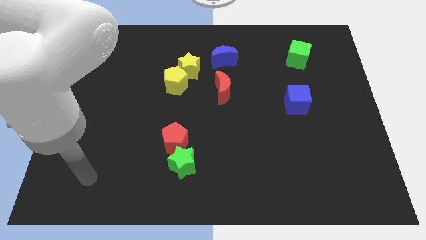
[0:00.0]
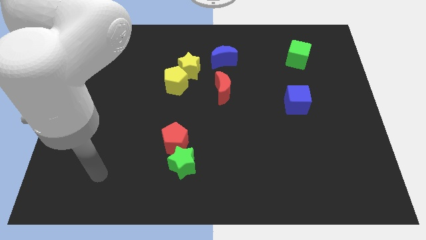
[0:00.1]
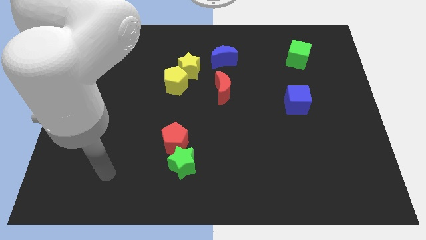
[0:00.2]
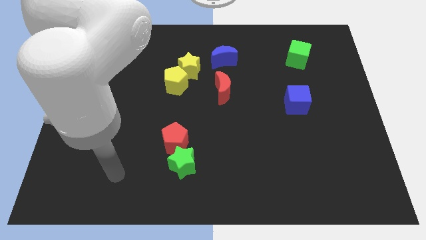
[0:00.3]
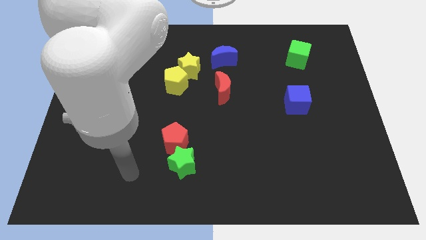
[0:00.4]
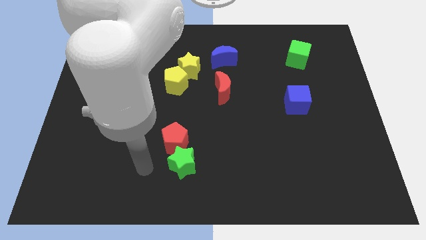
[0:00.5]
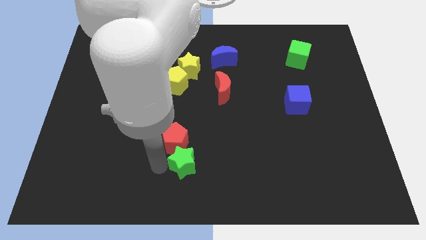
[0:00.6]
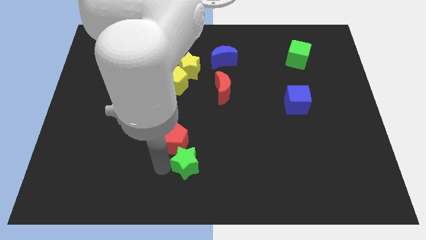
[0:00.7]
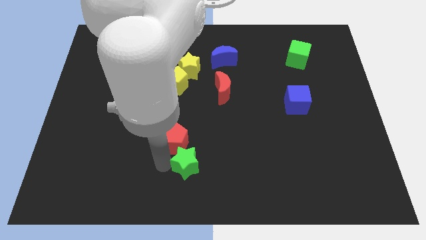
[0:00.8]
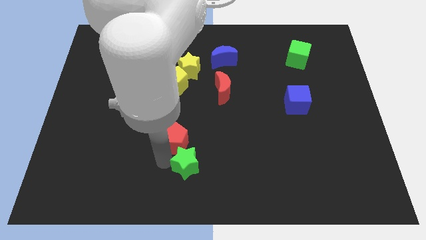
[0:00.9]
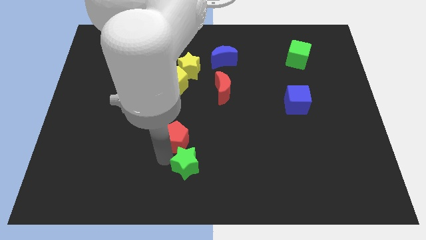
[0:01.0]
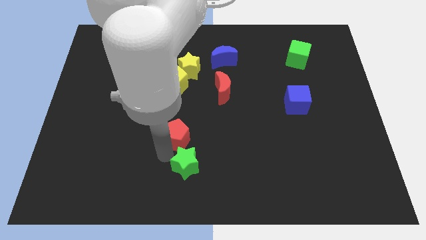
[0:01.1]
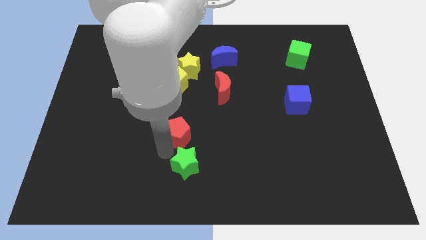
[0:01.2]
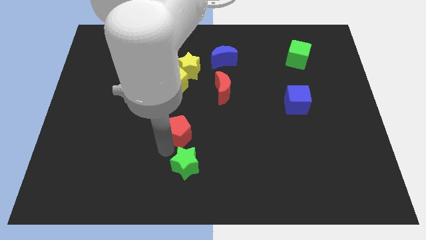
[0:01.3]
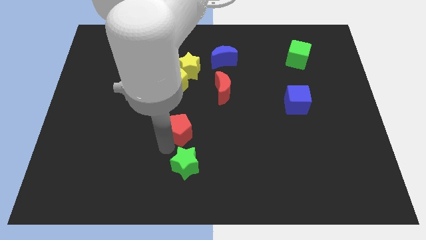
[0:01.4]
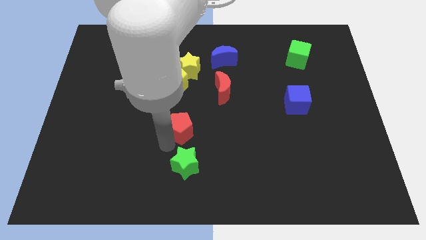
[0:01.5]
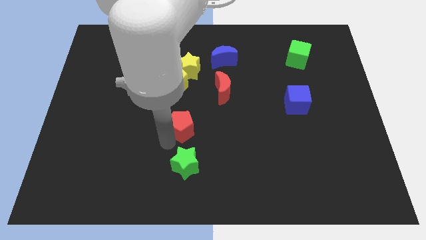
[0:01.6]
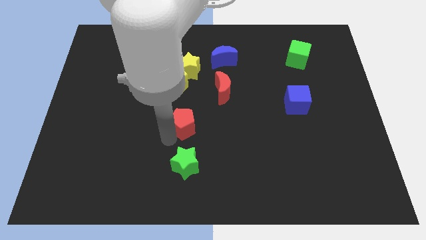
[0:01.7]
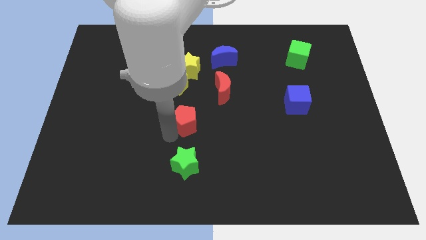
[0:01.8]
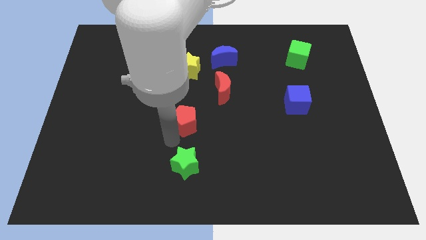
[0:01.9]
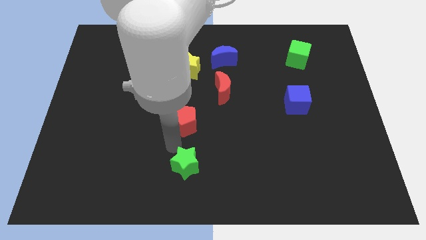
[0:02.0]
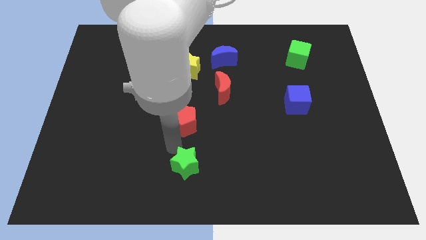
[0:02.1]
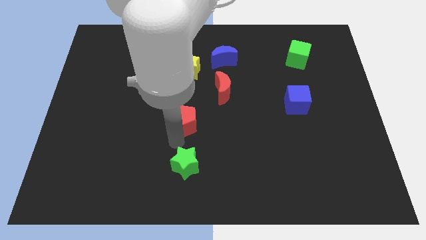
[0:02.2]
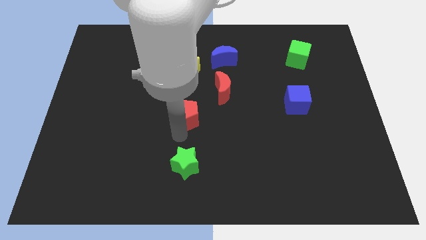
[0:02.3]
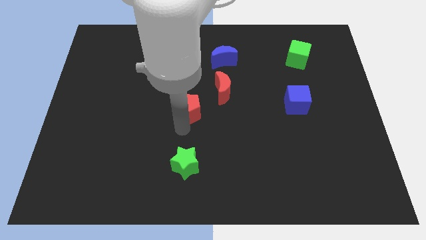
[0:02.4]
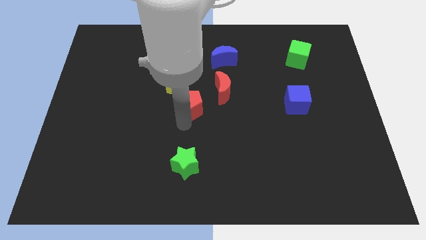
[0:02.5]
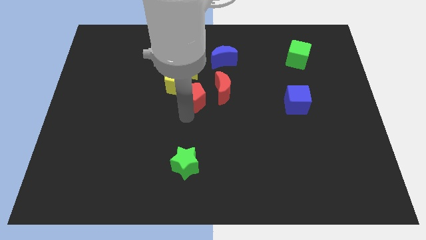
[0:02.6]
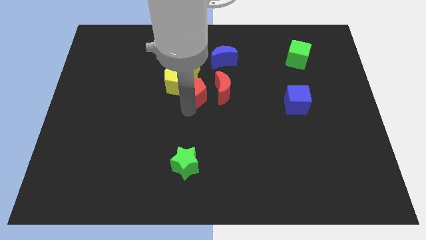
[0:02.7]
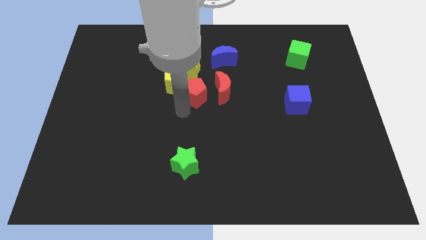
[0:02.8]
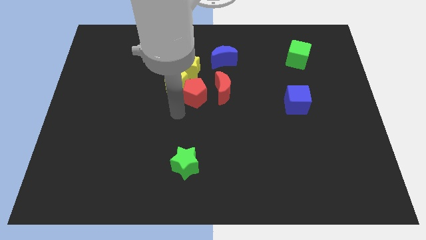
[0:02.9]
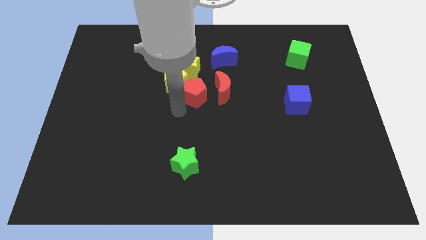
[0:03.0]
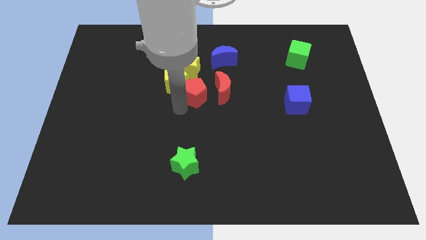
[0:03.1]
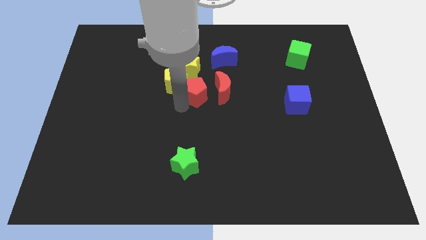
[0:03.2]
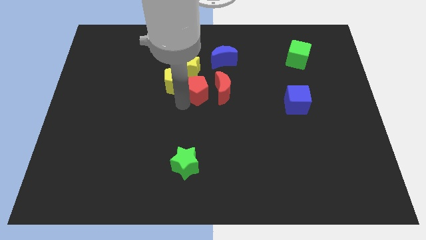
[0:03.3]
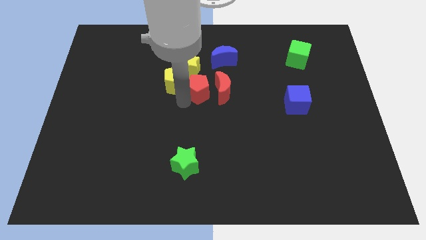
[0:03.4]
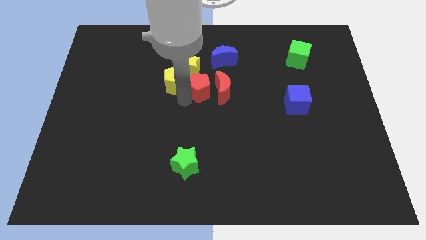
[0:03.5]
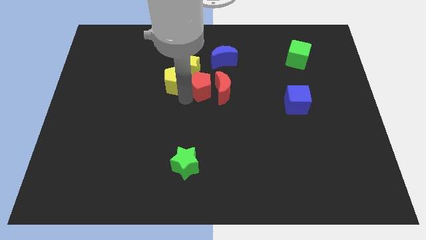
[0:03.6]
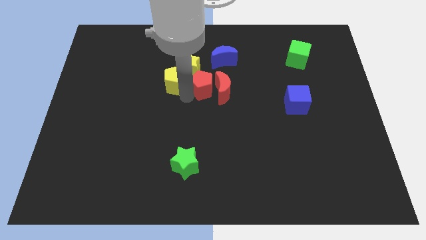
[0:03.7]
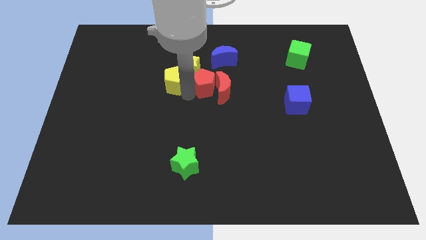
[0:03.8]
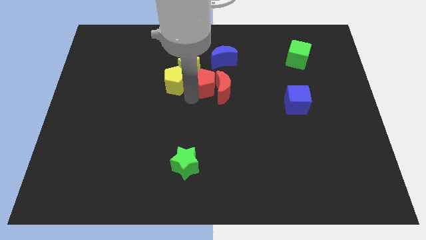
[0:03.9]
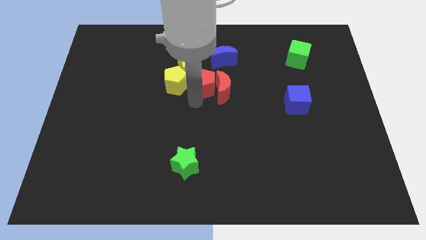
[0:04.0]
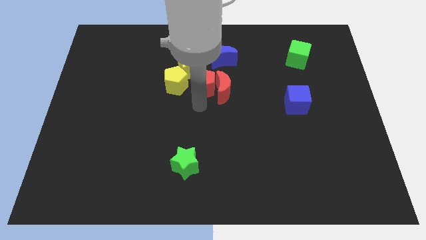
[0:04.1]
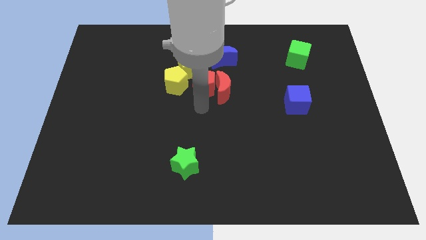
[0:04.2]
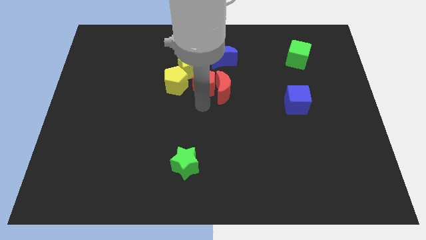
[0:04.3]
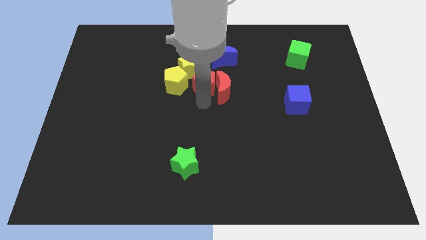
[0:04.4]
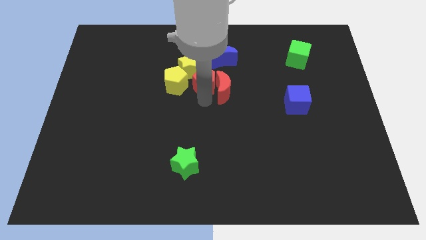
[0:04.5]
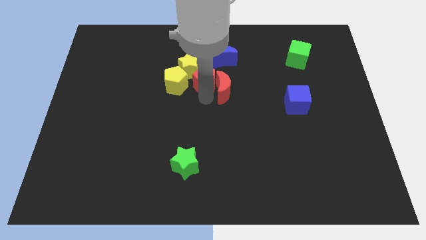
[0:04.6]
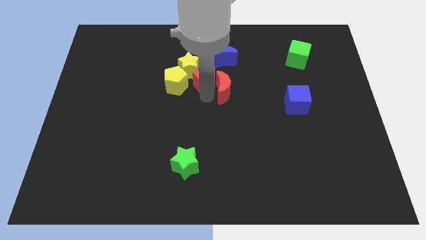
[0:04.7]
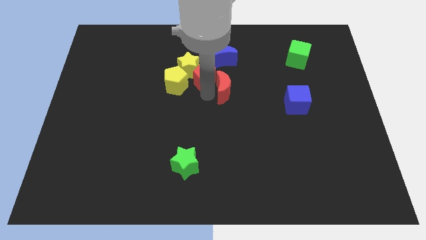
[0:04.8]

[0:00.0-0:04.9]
push the red pentagon to the top of the red moon

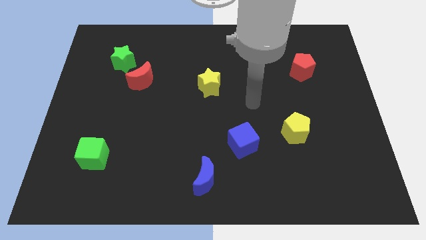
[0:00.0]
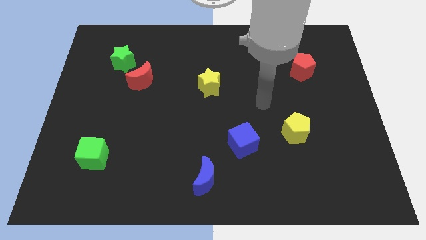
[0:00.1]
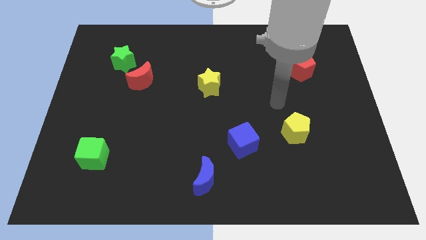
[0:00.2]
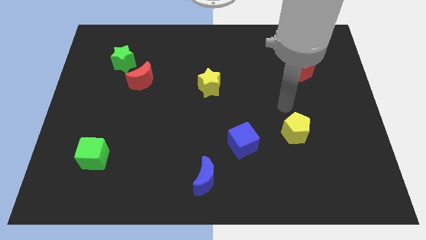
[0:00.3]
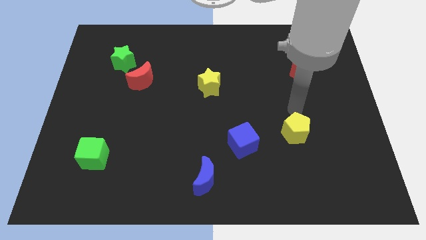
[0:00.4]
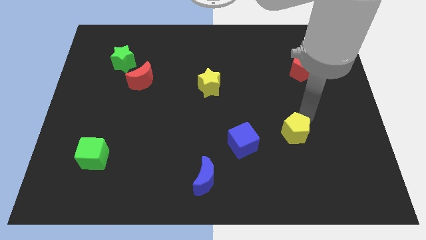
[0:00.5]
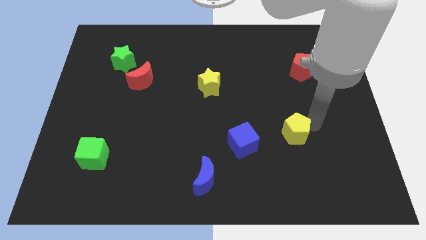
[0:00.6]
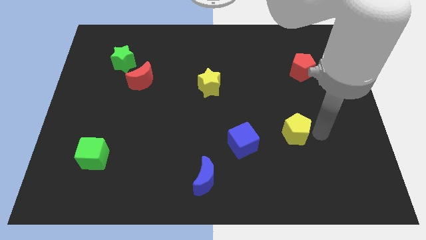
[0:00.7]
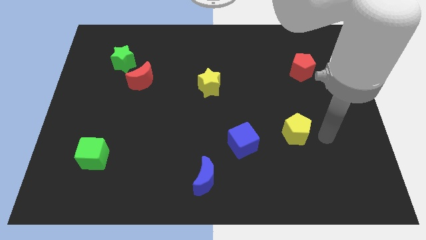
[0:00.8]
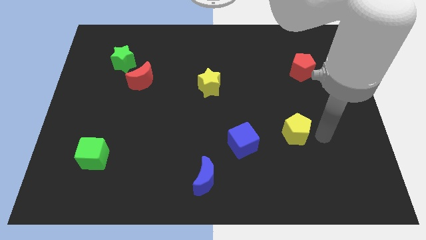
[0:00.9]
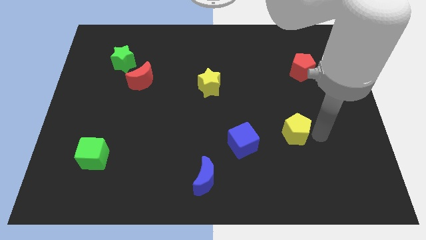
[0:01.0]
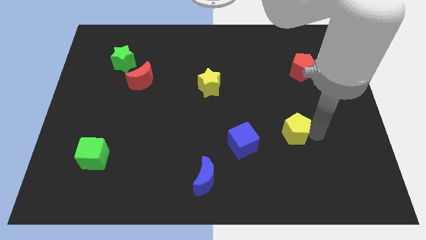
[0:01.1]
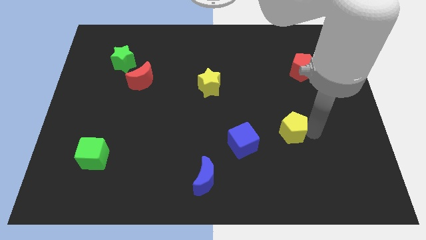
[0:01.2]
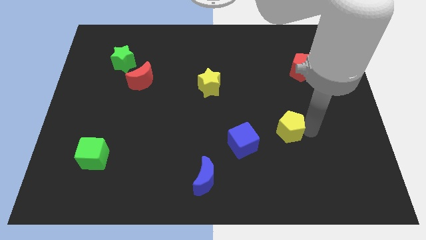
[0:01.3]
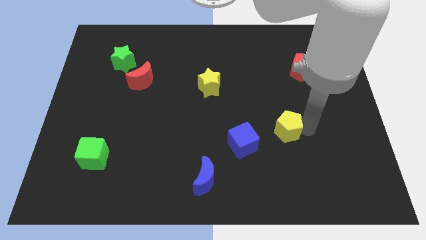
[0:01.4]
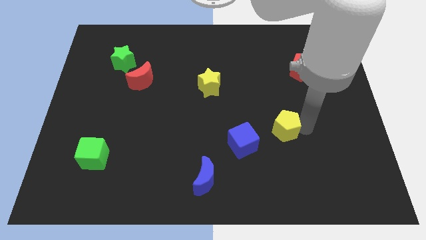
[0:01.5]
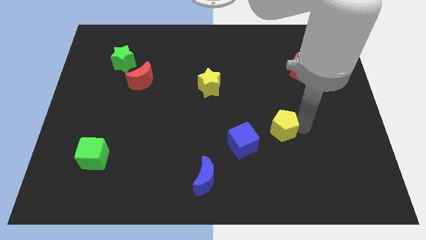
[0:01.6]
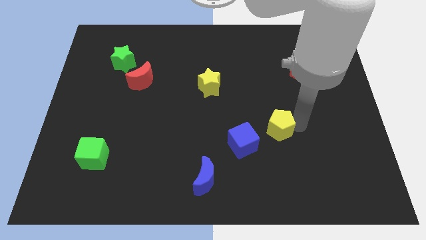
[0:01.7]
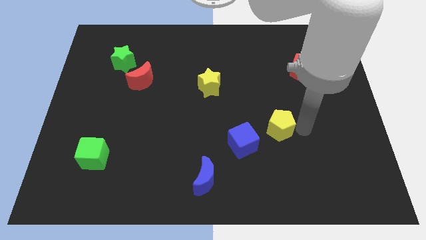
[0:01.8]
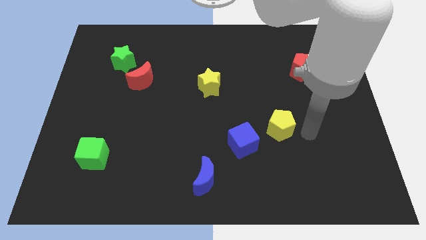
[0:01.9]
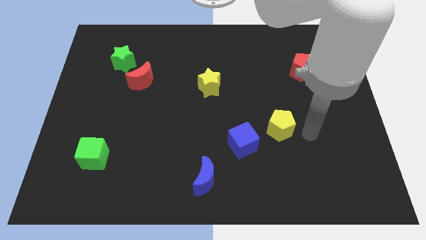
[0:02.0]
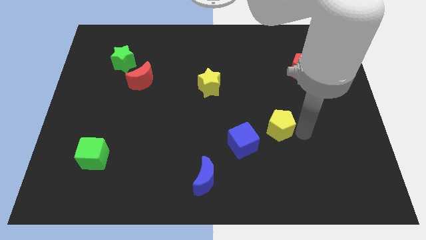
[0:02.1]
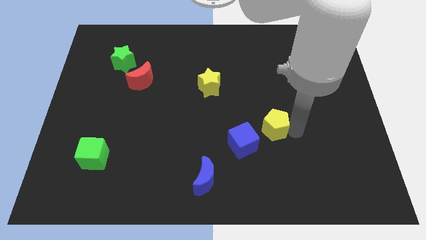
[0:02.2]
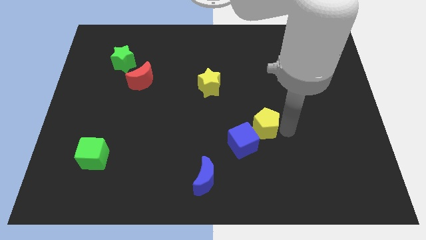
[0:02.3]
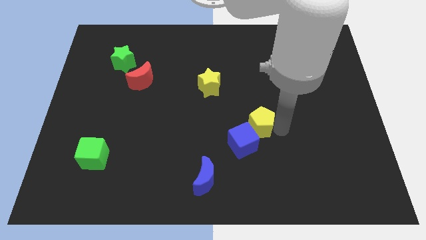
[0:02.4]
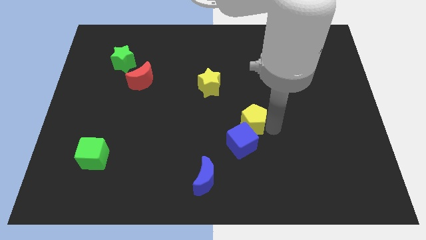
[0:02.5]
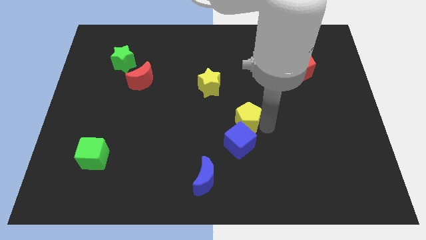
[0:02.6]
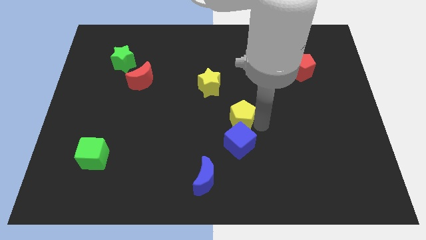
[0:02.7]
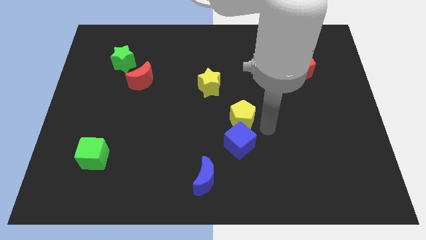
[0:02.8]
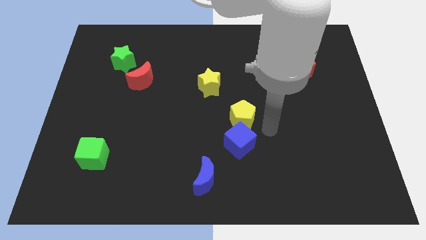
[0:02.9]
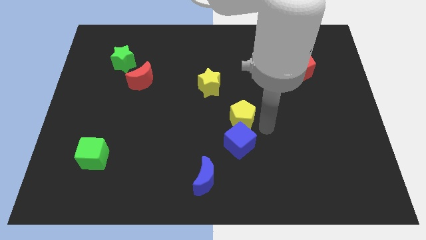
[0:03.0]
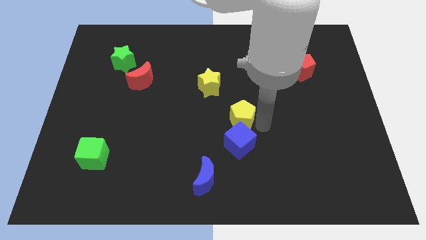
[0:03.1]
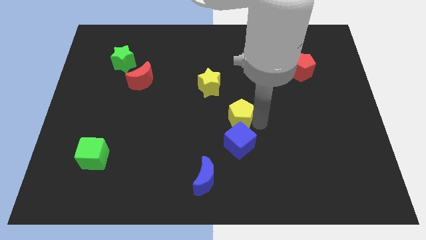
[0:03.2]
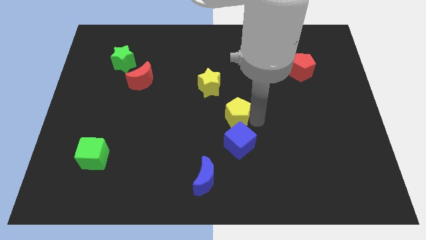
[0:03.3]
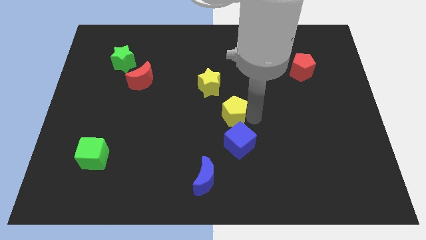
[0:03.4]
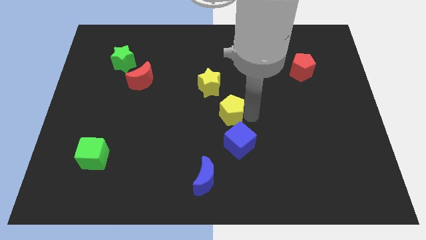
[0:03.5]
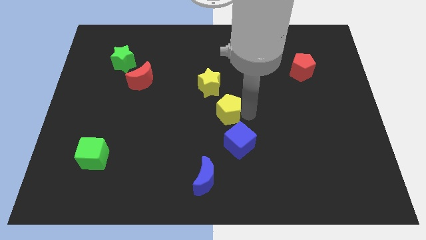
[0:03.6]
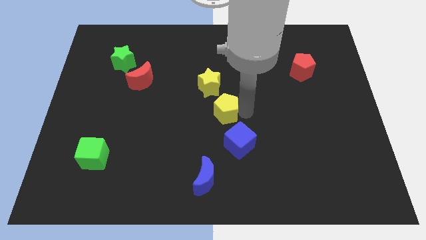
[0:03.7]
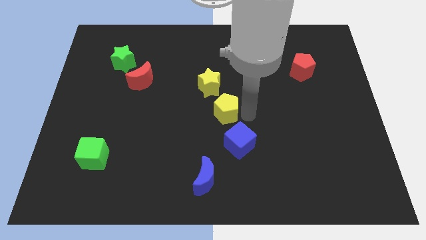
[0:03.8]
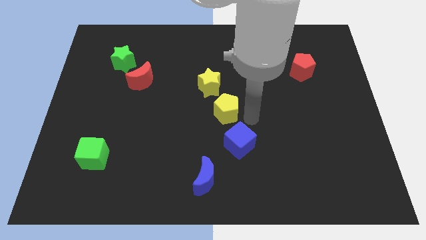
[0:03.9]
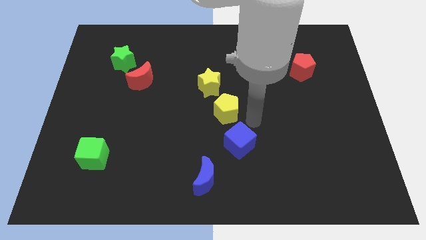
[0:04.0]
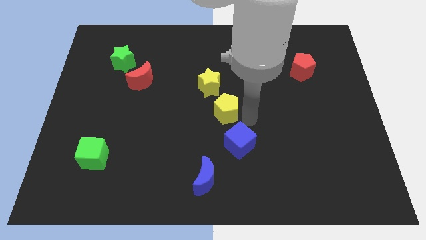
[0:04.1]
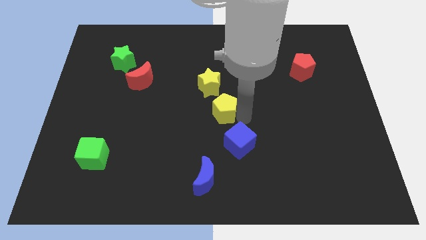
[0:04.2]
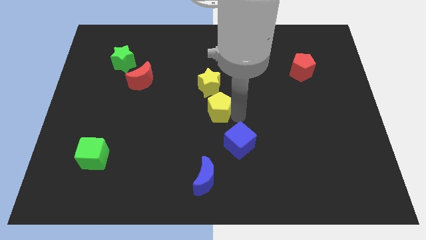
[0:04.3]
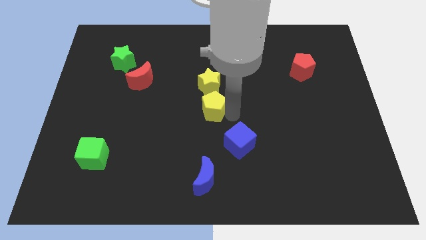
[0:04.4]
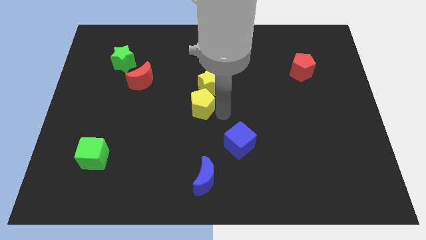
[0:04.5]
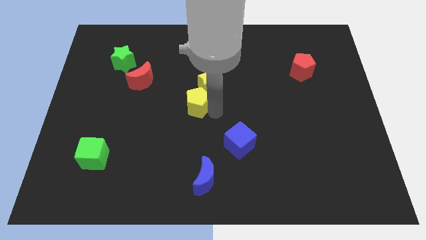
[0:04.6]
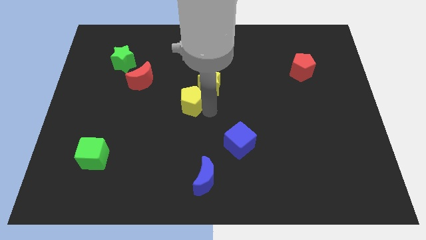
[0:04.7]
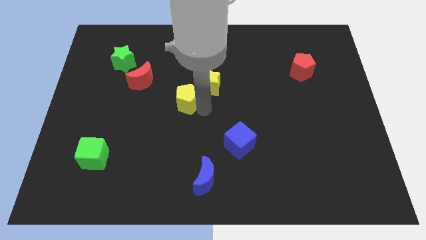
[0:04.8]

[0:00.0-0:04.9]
put the yellow pentagon just left of the yellow star
